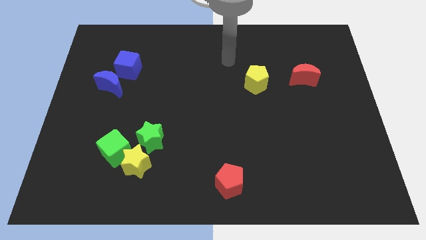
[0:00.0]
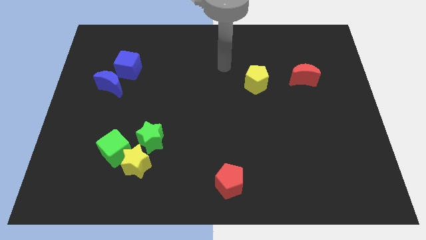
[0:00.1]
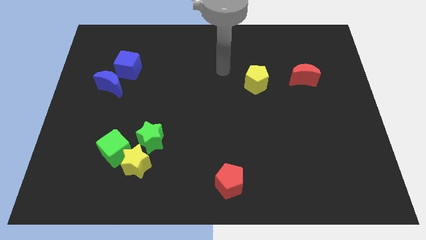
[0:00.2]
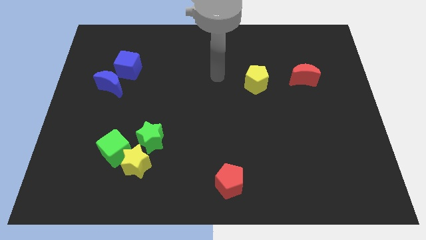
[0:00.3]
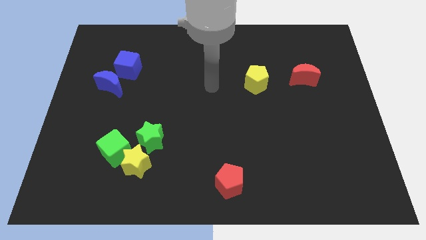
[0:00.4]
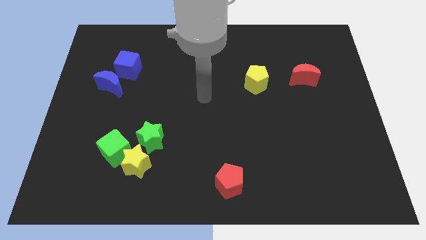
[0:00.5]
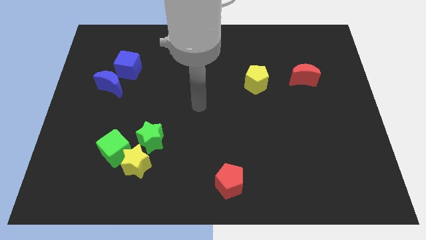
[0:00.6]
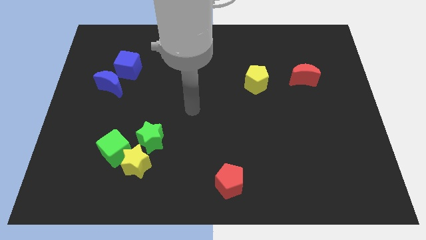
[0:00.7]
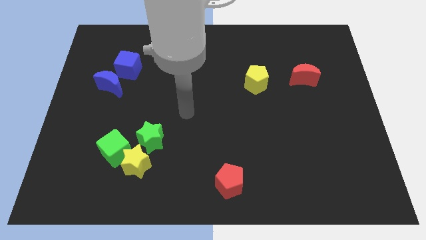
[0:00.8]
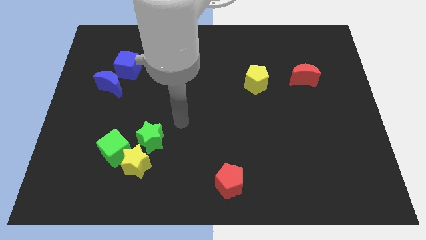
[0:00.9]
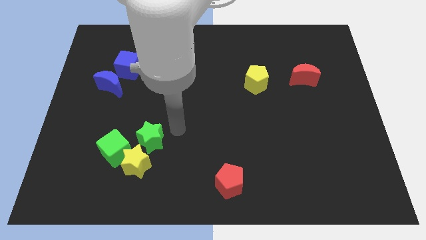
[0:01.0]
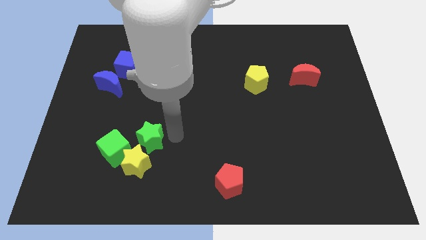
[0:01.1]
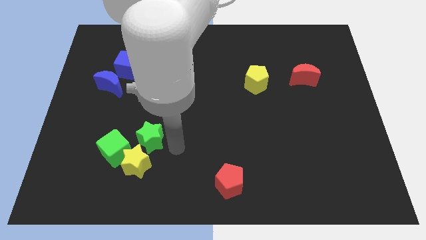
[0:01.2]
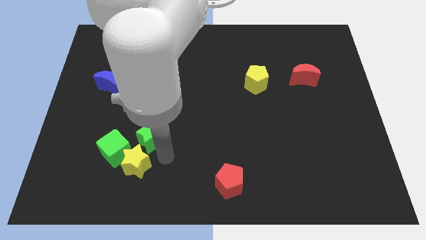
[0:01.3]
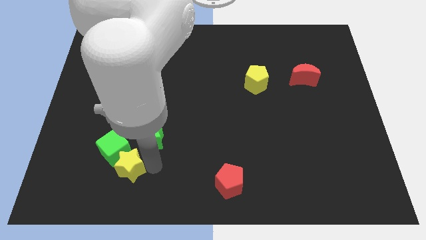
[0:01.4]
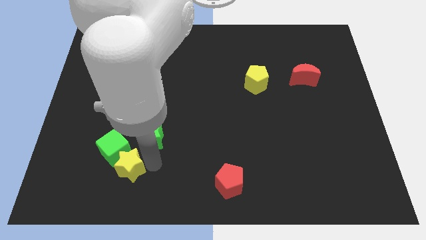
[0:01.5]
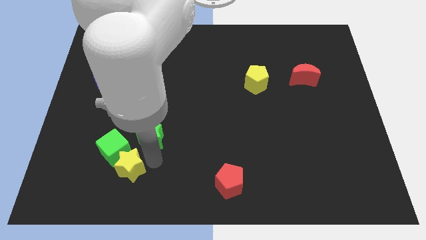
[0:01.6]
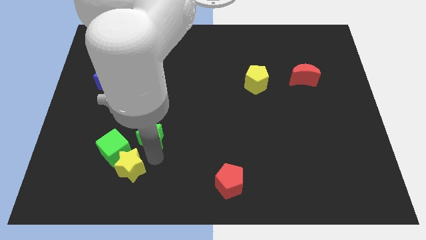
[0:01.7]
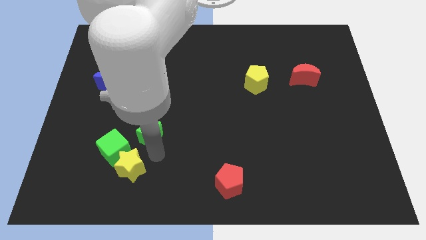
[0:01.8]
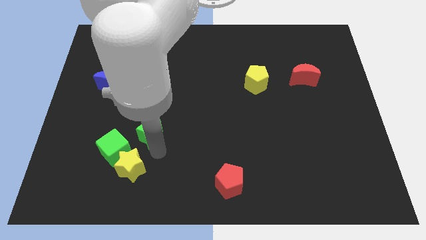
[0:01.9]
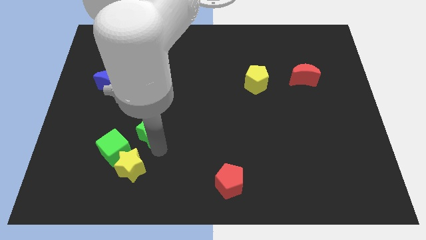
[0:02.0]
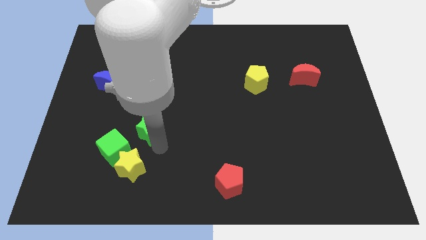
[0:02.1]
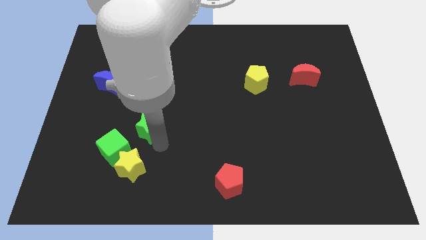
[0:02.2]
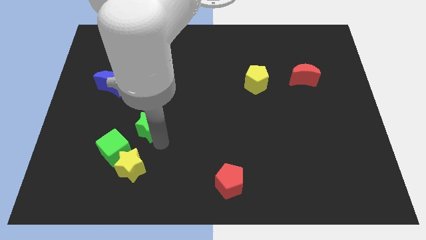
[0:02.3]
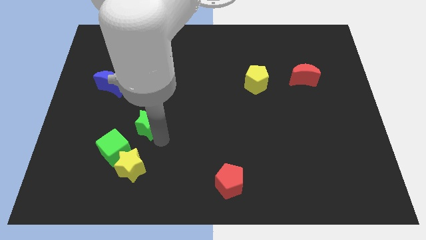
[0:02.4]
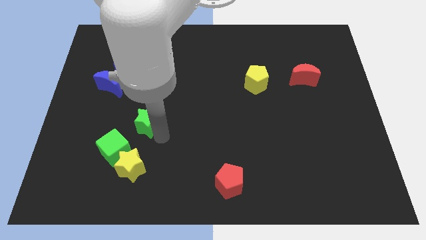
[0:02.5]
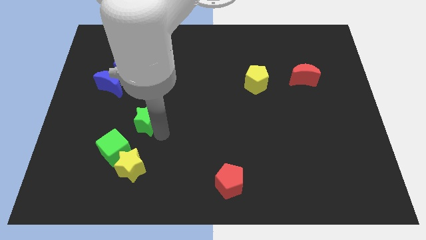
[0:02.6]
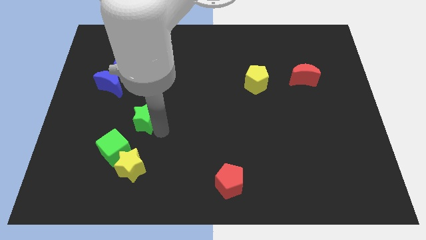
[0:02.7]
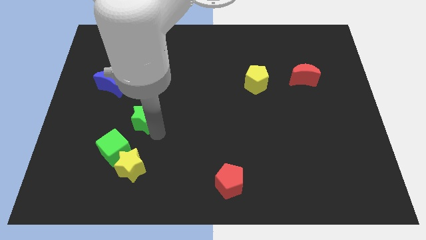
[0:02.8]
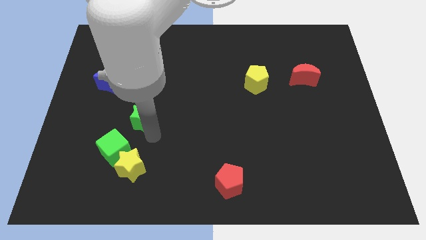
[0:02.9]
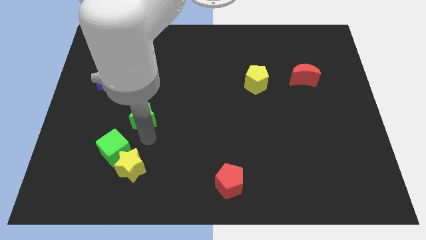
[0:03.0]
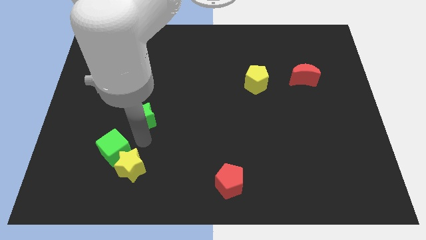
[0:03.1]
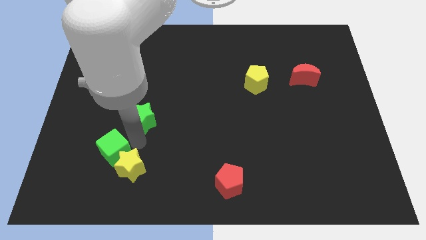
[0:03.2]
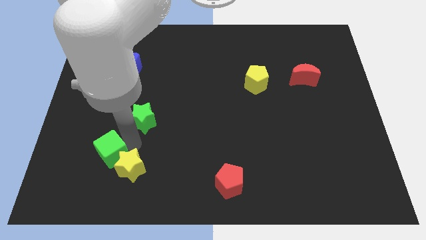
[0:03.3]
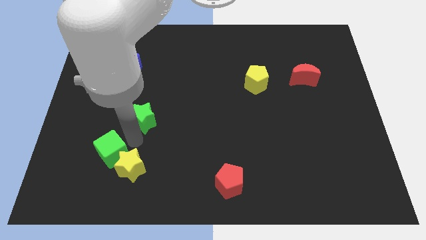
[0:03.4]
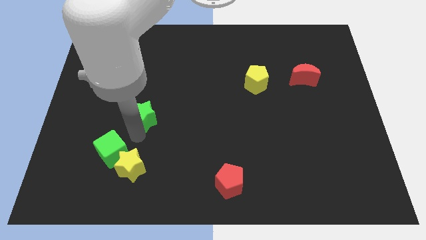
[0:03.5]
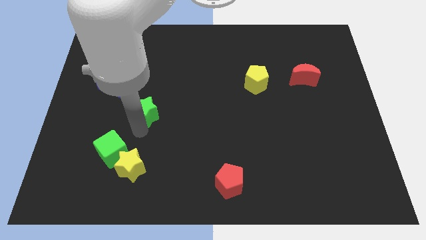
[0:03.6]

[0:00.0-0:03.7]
slide the green star a little up

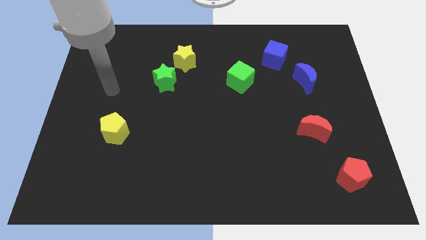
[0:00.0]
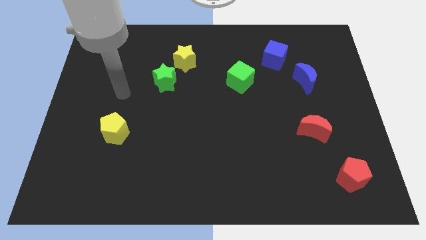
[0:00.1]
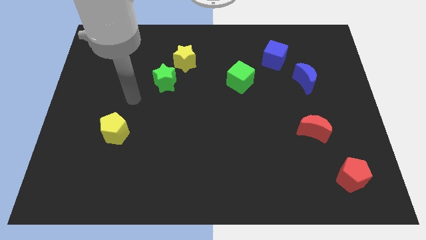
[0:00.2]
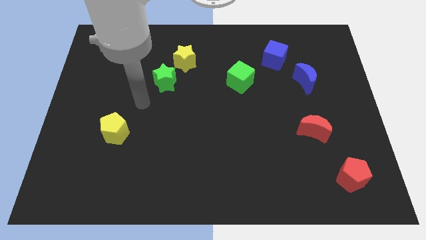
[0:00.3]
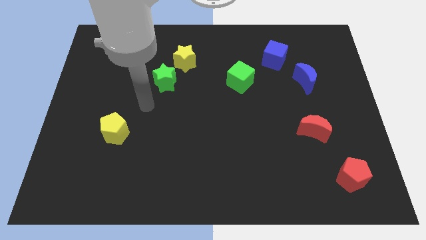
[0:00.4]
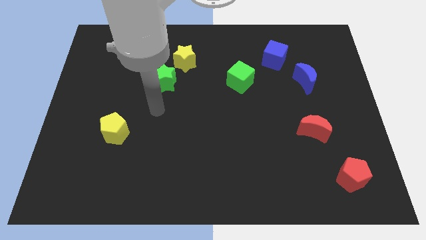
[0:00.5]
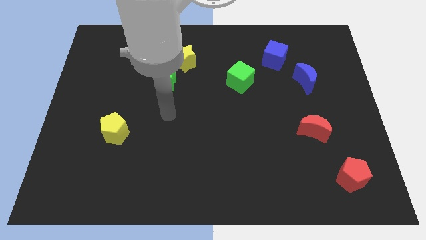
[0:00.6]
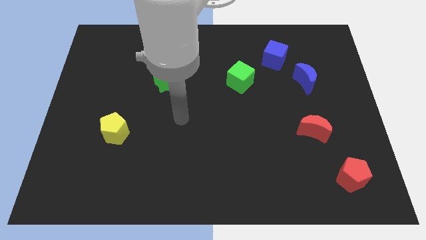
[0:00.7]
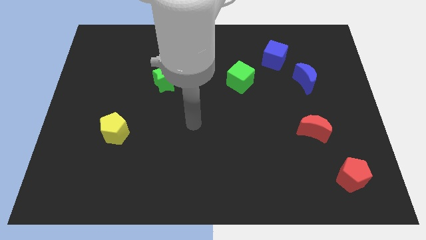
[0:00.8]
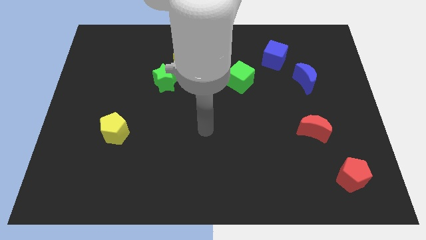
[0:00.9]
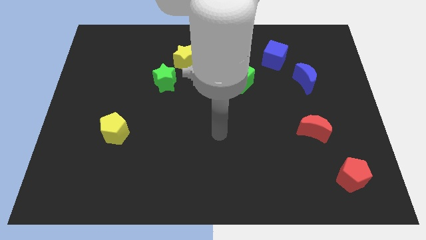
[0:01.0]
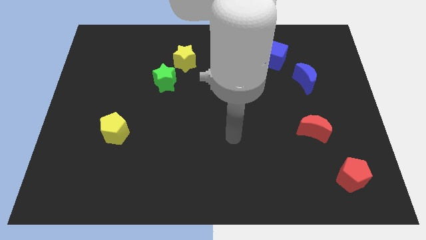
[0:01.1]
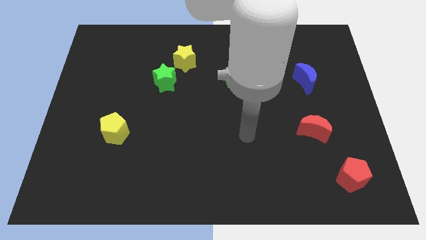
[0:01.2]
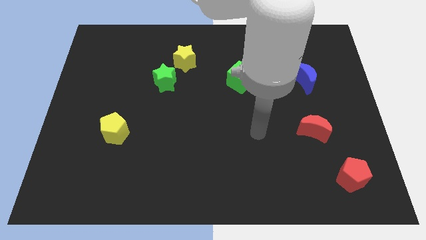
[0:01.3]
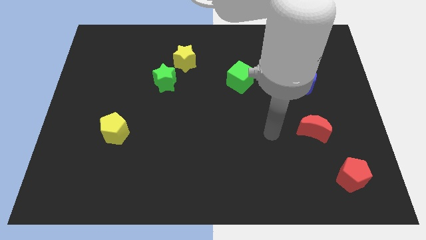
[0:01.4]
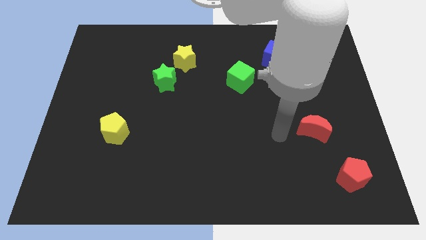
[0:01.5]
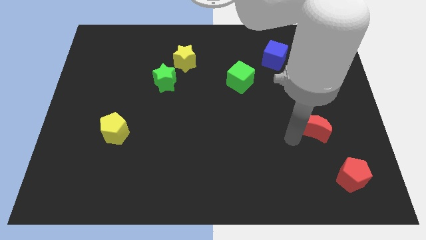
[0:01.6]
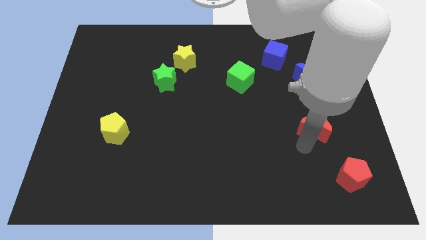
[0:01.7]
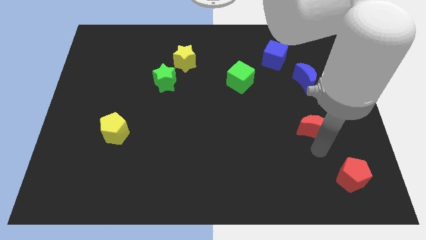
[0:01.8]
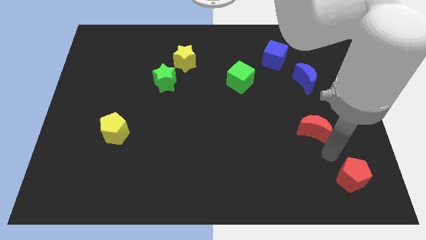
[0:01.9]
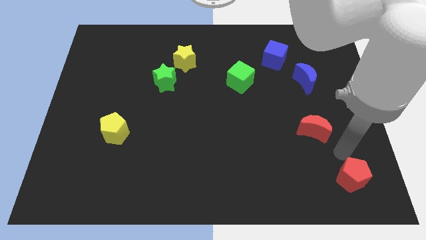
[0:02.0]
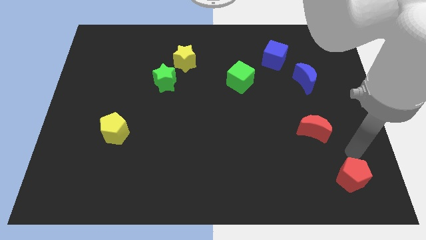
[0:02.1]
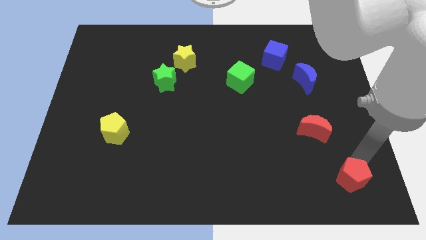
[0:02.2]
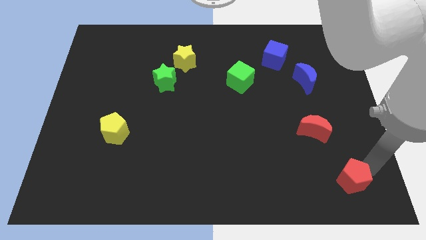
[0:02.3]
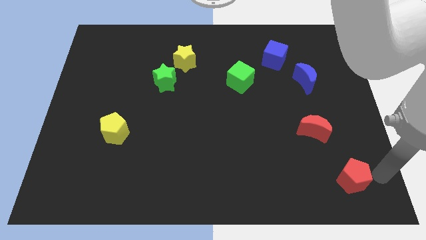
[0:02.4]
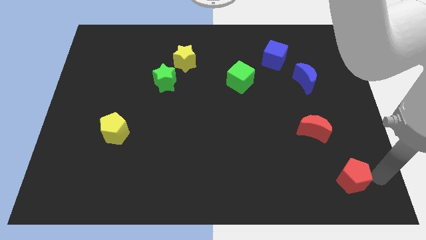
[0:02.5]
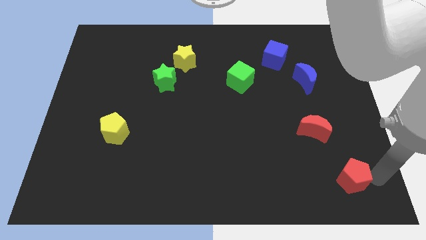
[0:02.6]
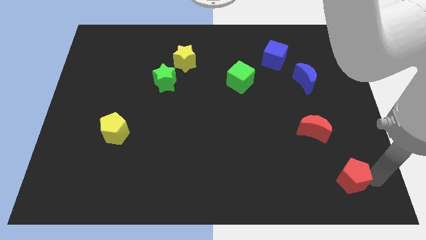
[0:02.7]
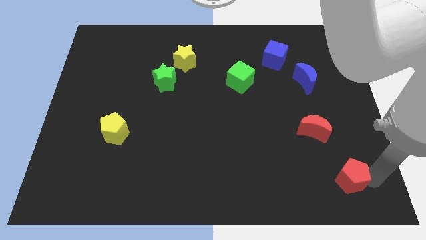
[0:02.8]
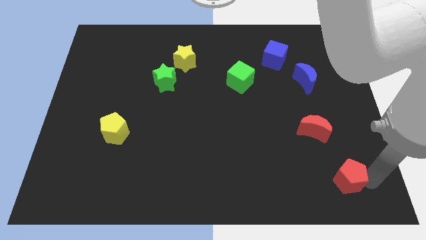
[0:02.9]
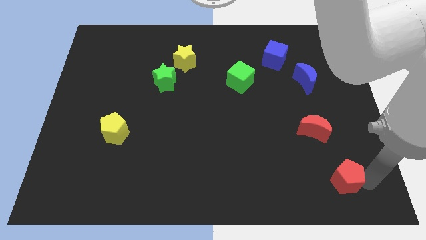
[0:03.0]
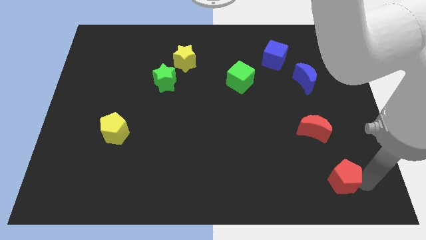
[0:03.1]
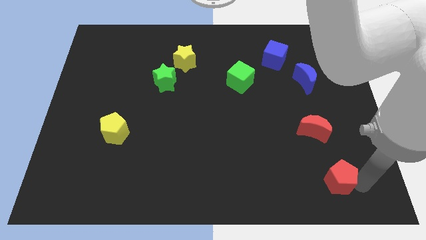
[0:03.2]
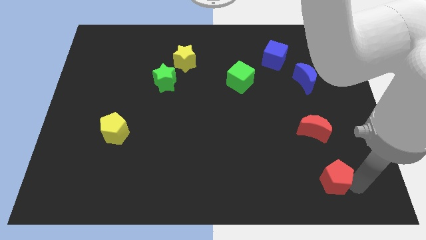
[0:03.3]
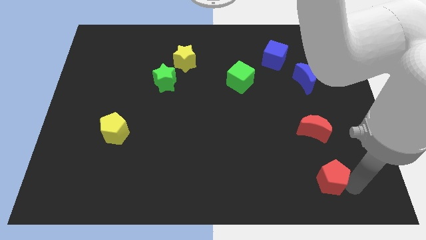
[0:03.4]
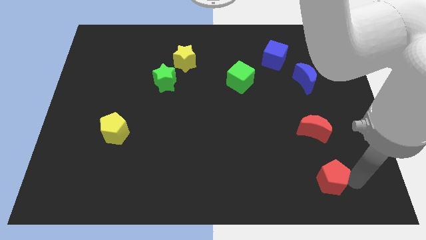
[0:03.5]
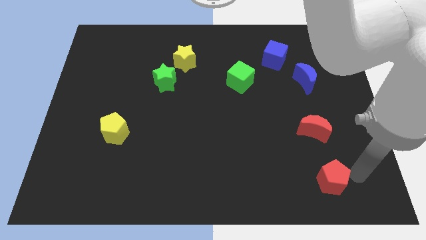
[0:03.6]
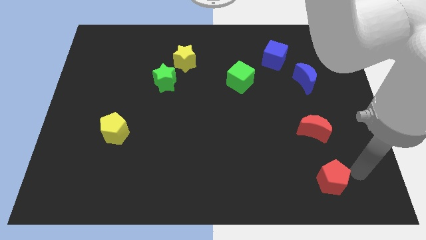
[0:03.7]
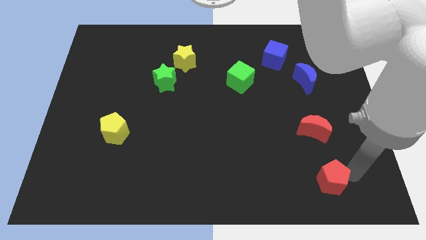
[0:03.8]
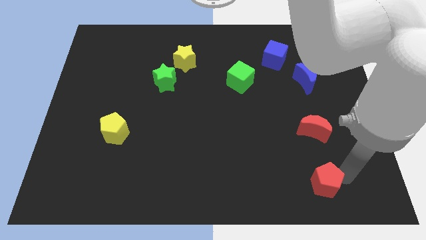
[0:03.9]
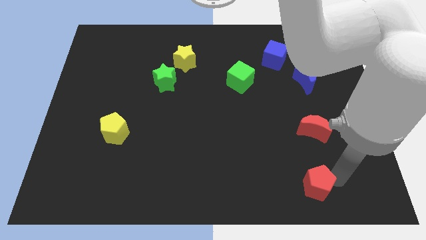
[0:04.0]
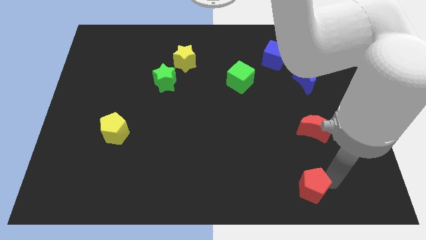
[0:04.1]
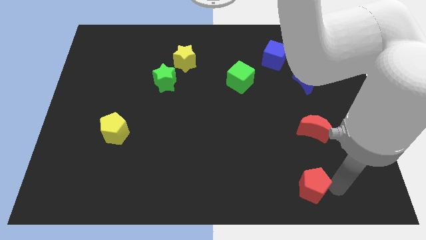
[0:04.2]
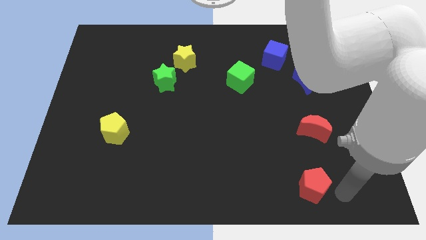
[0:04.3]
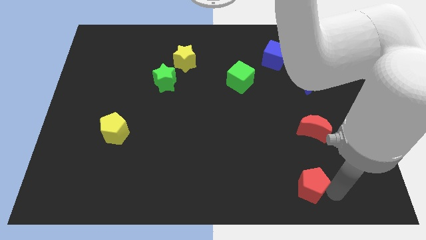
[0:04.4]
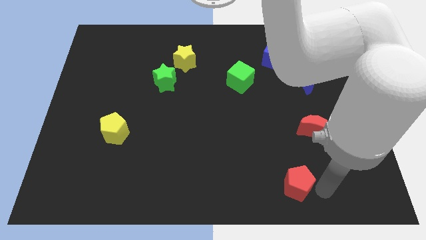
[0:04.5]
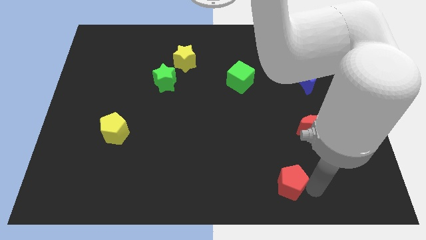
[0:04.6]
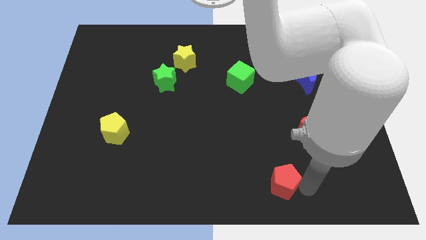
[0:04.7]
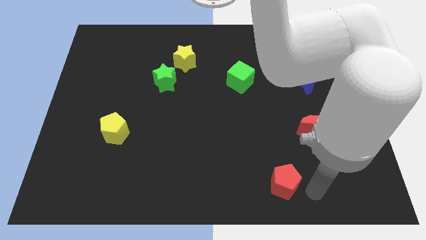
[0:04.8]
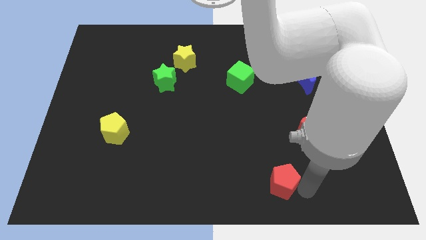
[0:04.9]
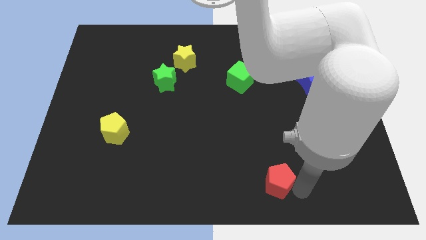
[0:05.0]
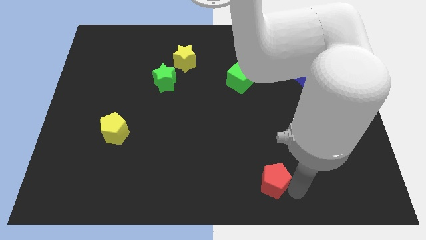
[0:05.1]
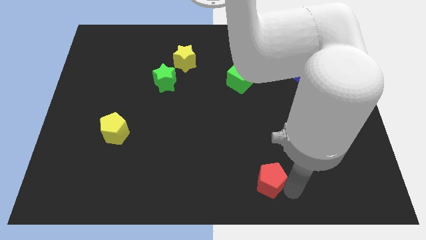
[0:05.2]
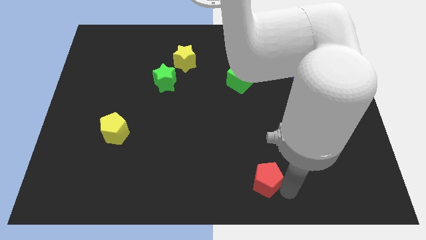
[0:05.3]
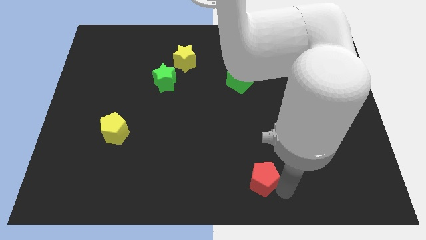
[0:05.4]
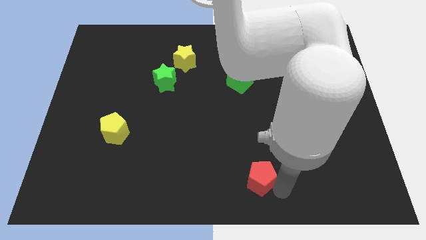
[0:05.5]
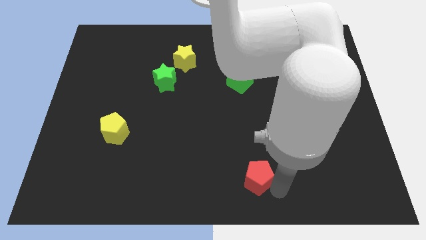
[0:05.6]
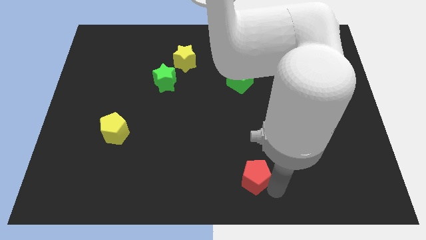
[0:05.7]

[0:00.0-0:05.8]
slide the red pentagon to the left
